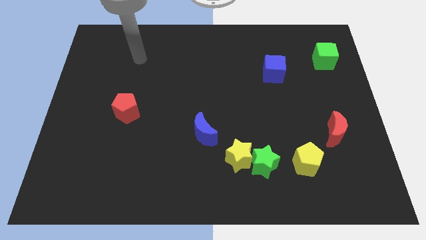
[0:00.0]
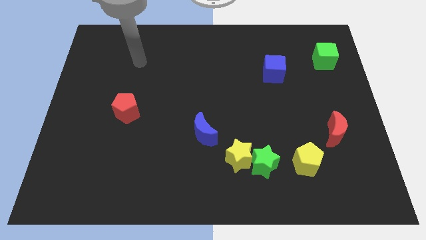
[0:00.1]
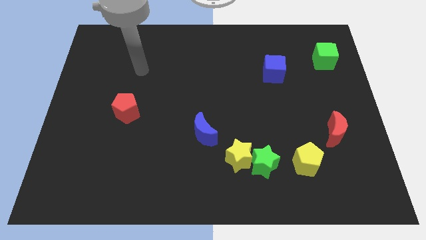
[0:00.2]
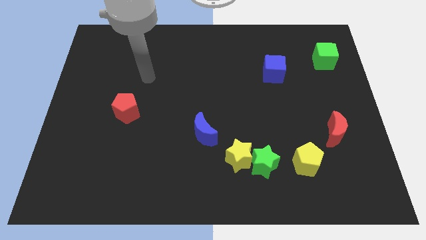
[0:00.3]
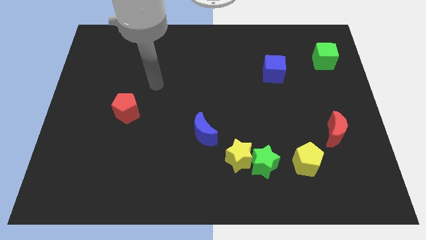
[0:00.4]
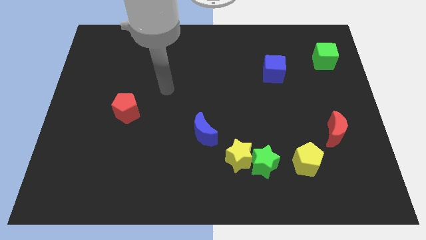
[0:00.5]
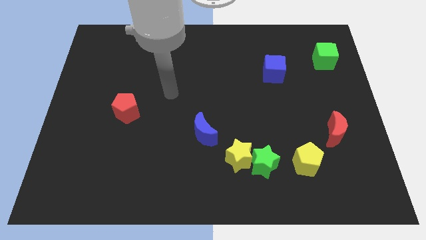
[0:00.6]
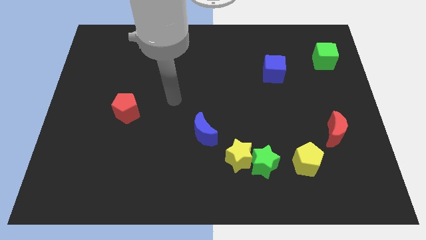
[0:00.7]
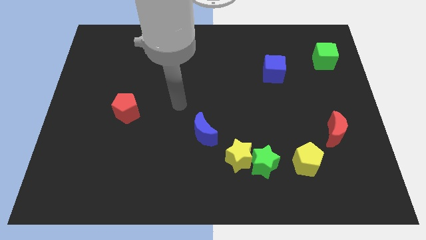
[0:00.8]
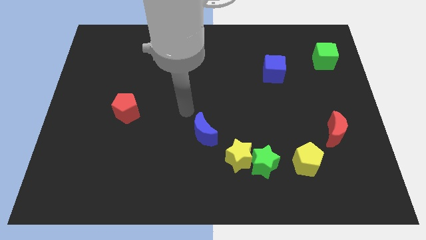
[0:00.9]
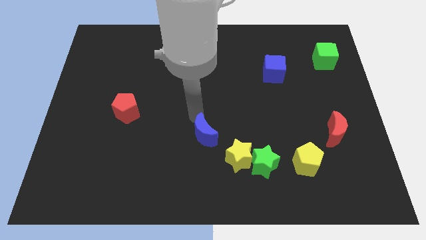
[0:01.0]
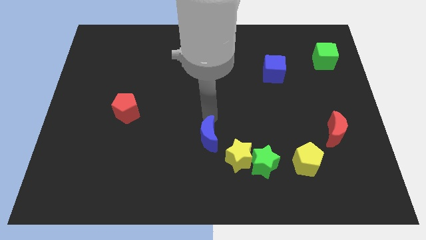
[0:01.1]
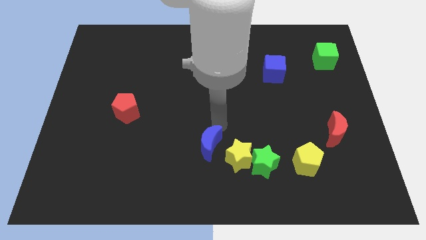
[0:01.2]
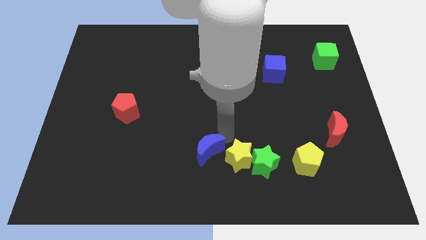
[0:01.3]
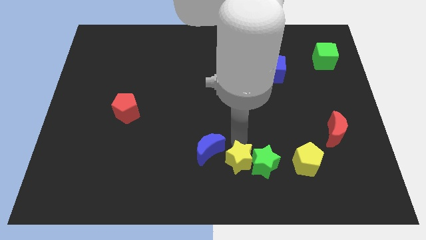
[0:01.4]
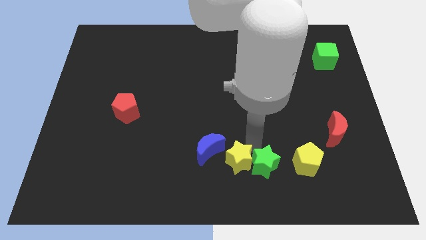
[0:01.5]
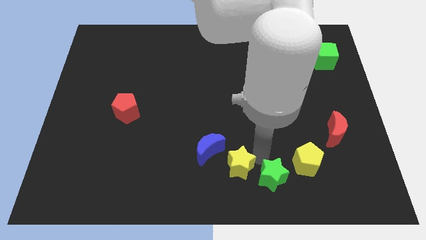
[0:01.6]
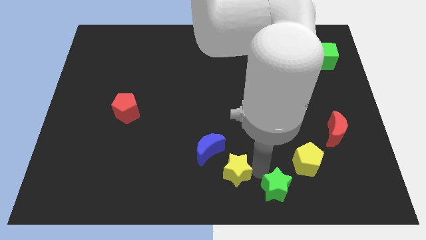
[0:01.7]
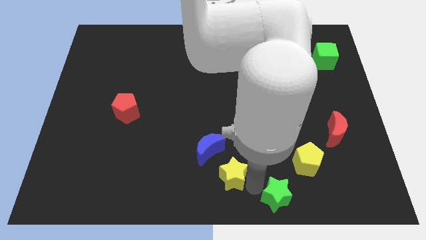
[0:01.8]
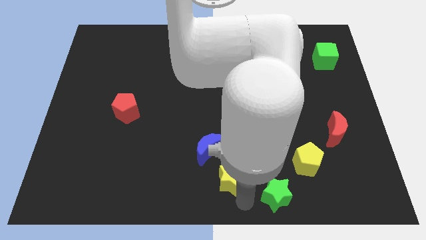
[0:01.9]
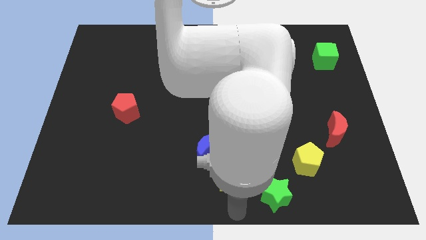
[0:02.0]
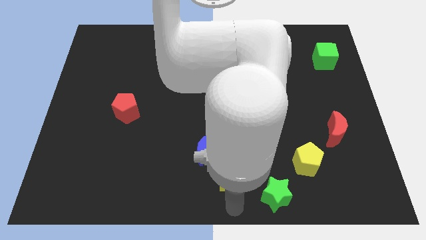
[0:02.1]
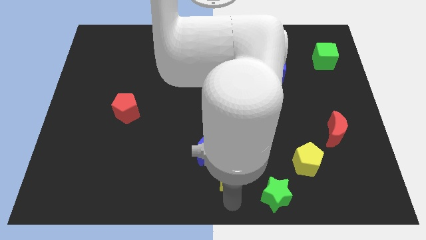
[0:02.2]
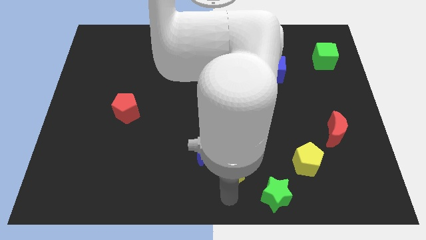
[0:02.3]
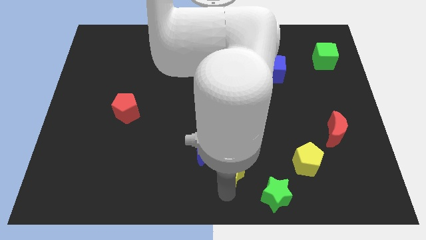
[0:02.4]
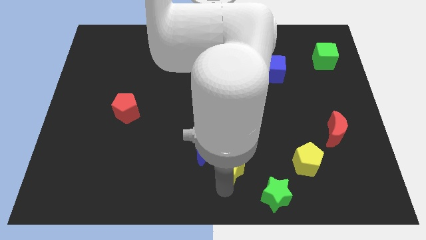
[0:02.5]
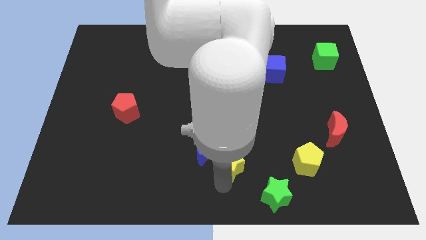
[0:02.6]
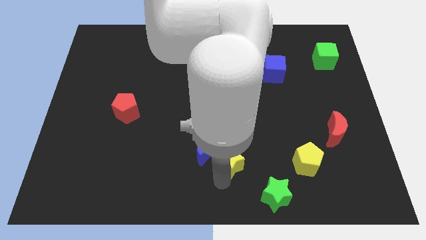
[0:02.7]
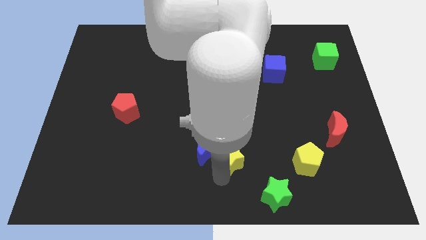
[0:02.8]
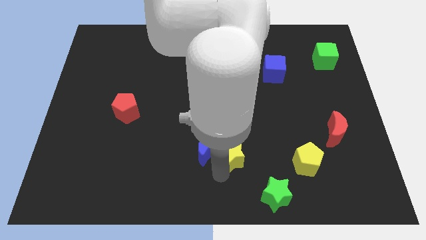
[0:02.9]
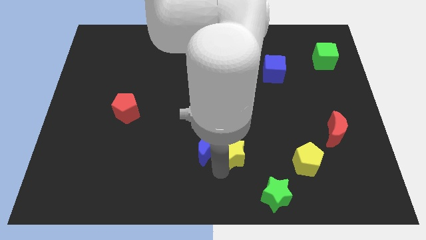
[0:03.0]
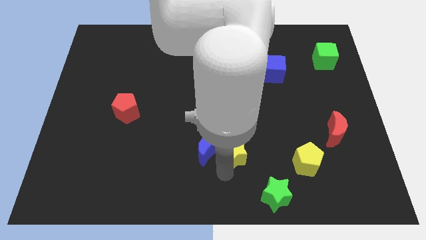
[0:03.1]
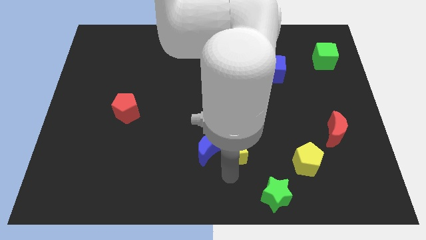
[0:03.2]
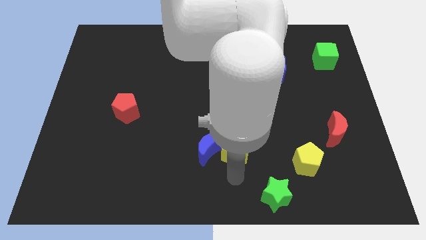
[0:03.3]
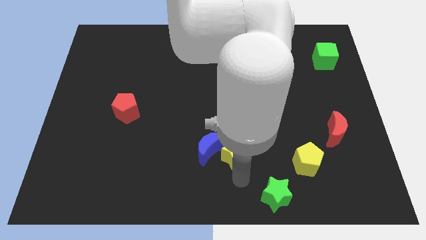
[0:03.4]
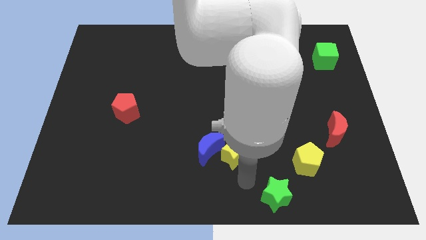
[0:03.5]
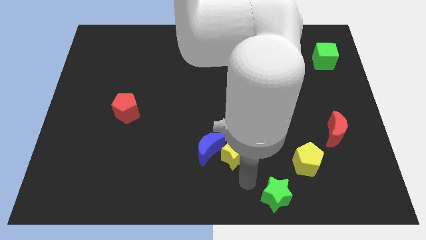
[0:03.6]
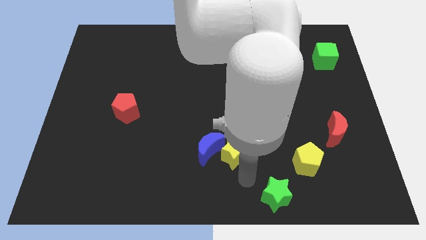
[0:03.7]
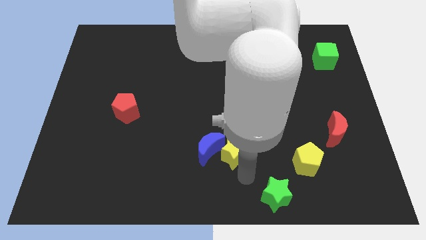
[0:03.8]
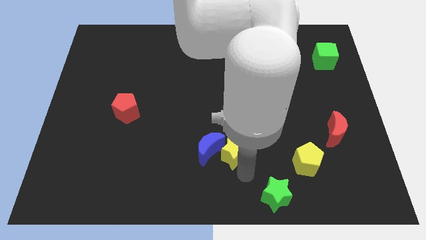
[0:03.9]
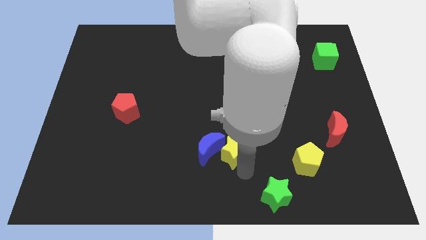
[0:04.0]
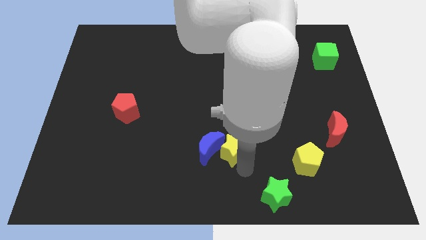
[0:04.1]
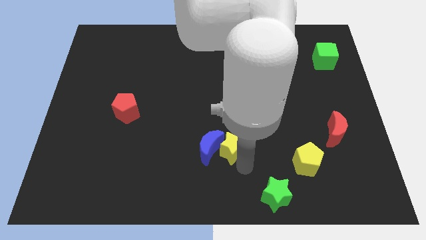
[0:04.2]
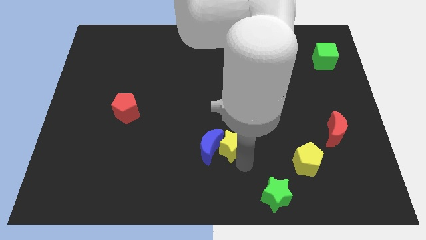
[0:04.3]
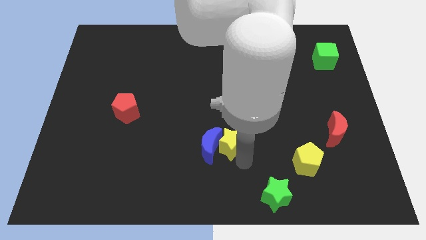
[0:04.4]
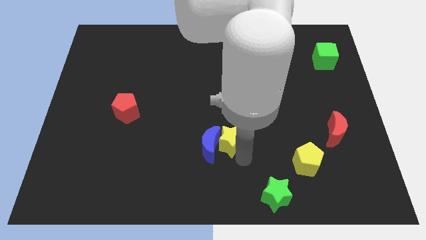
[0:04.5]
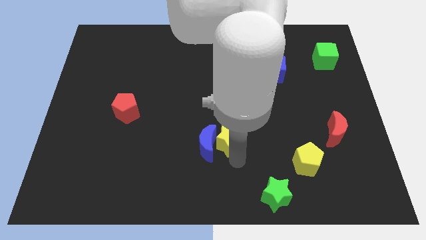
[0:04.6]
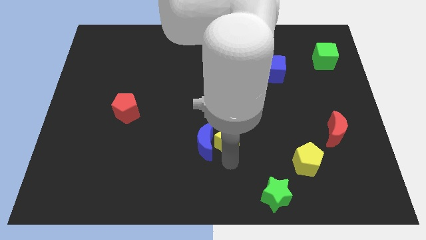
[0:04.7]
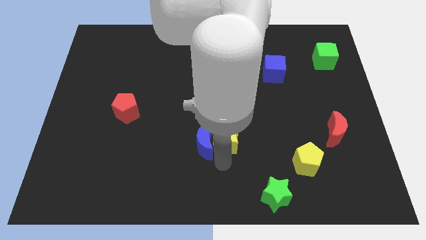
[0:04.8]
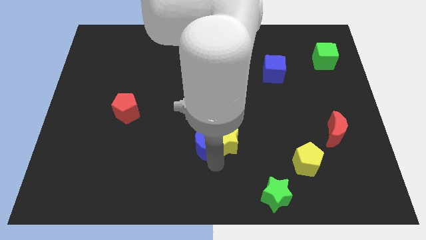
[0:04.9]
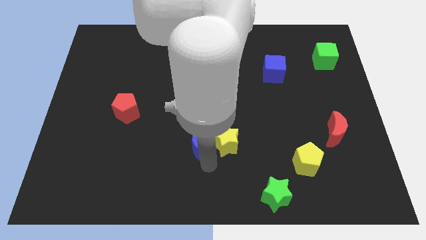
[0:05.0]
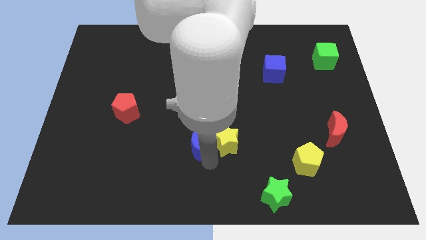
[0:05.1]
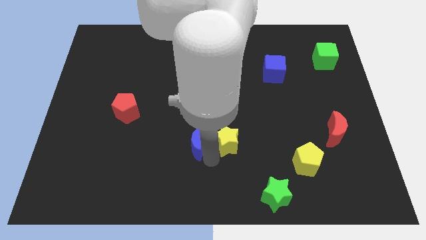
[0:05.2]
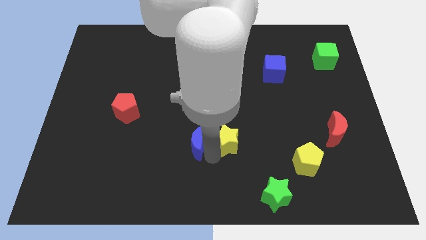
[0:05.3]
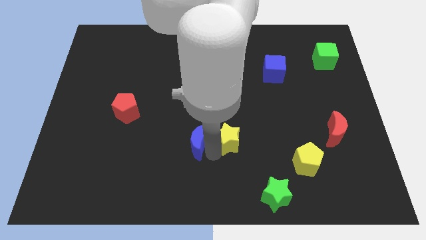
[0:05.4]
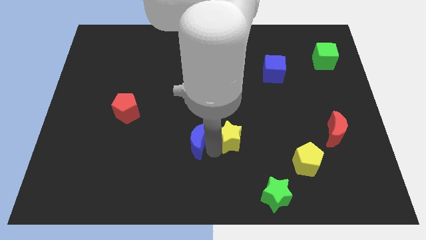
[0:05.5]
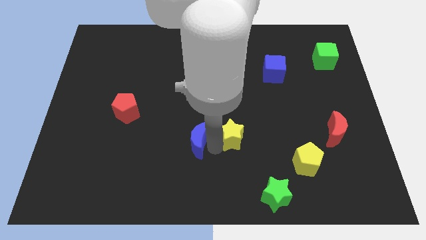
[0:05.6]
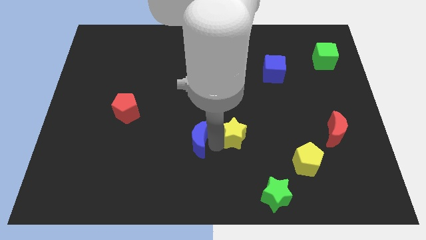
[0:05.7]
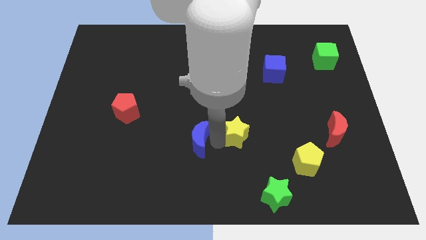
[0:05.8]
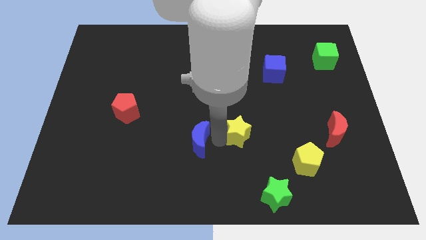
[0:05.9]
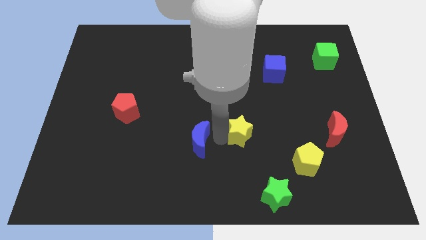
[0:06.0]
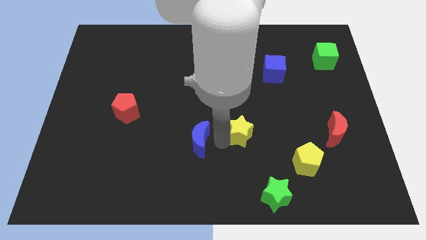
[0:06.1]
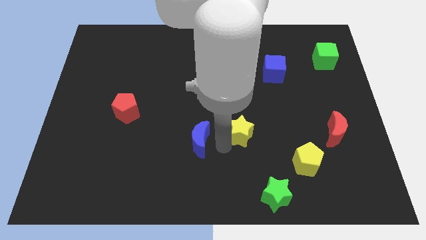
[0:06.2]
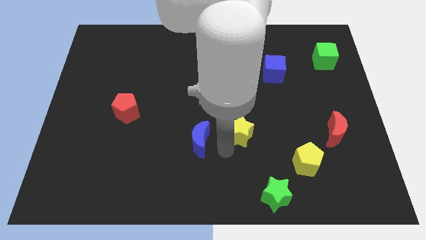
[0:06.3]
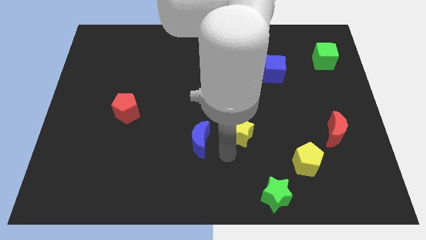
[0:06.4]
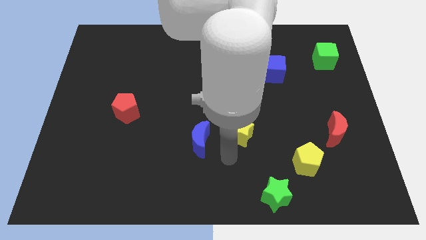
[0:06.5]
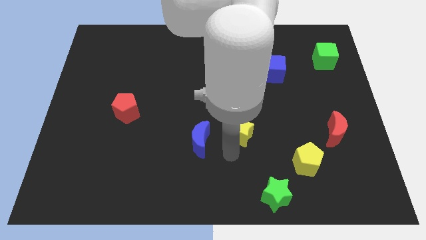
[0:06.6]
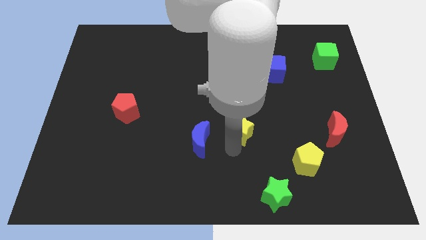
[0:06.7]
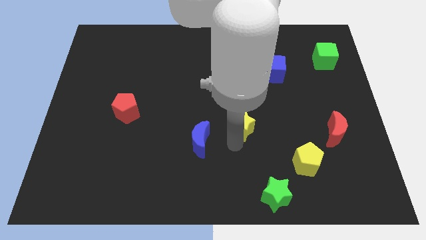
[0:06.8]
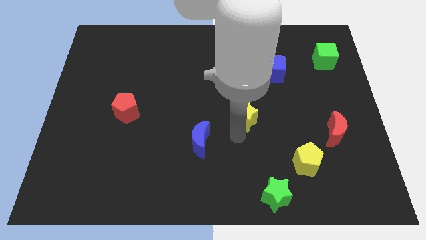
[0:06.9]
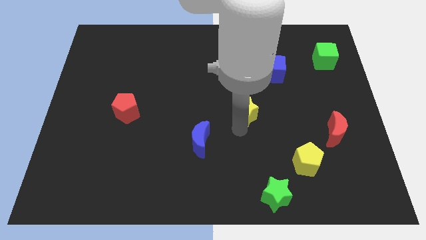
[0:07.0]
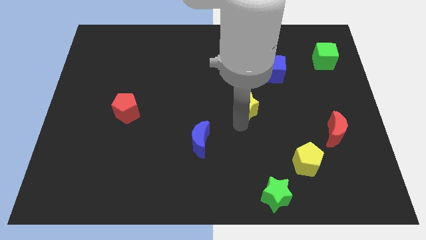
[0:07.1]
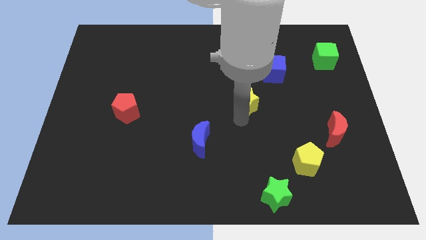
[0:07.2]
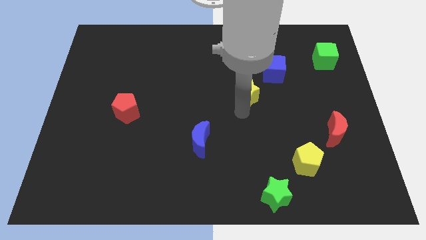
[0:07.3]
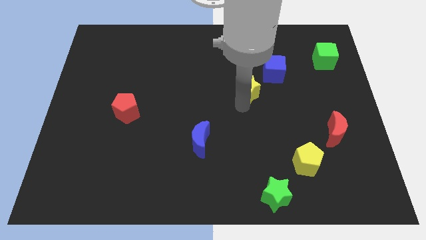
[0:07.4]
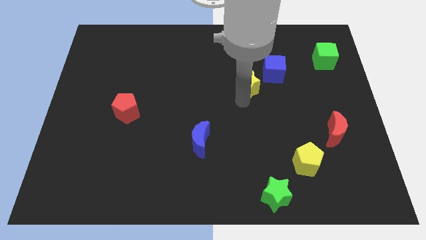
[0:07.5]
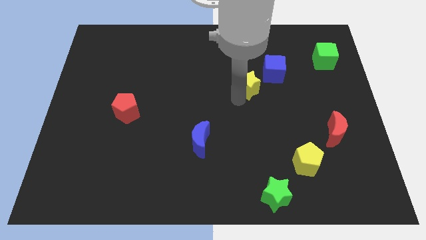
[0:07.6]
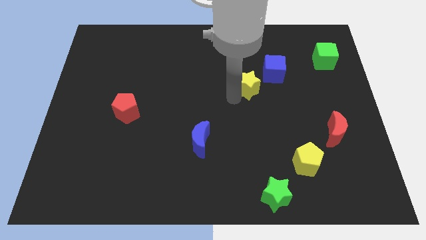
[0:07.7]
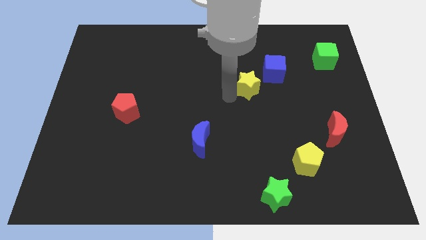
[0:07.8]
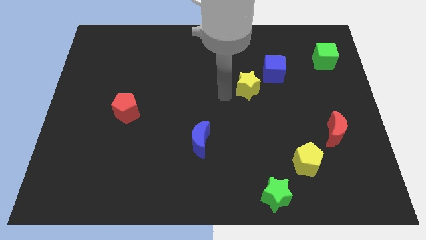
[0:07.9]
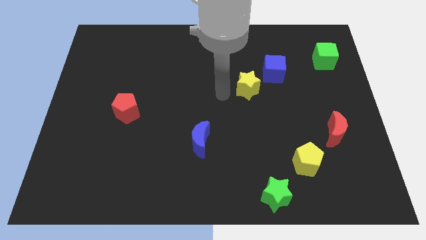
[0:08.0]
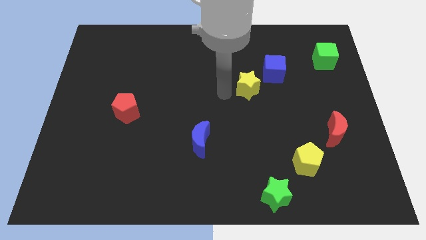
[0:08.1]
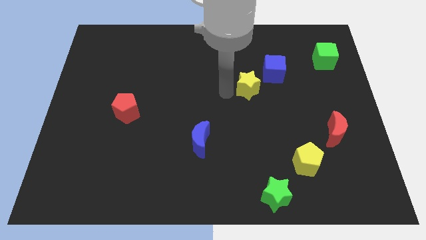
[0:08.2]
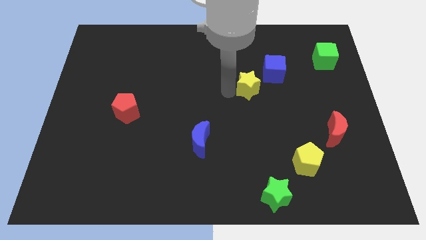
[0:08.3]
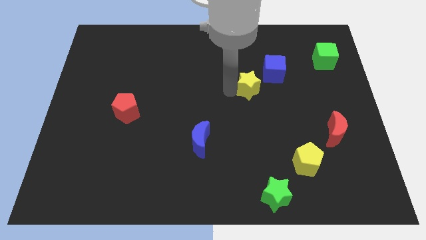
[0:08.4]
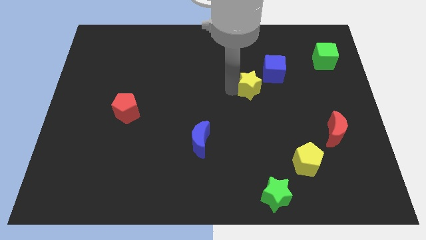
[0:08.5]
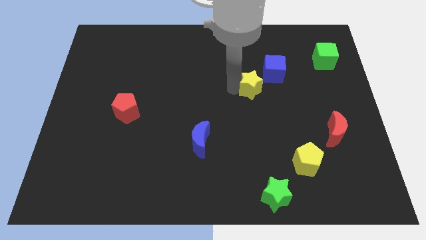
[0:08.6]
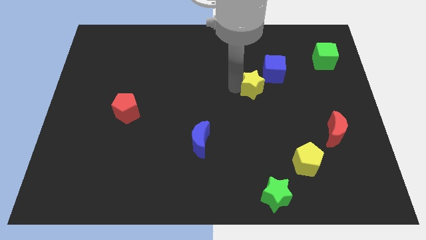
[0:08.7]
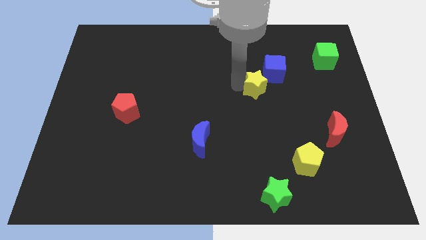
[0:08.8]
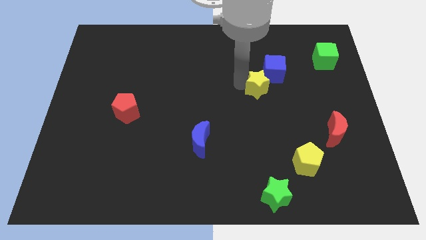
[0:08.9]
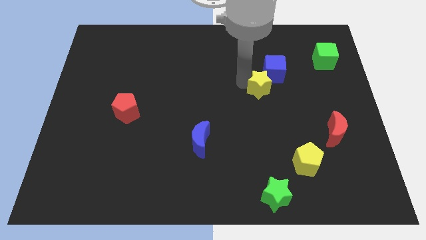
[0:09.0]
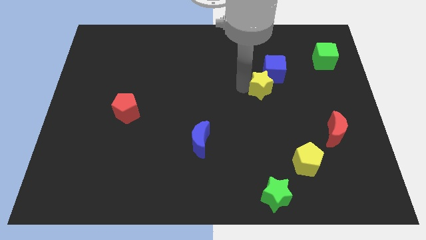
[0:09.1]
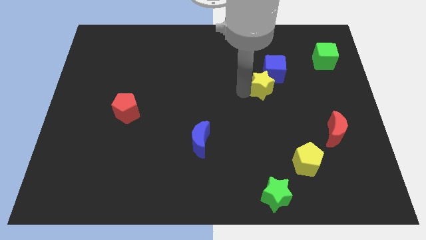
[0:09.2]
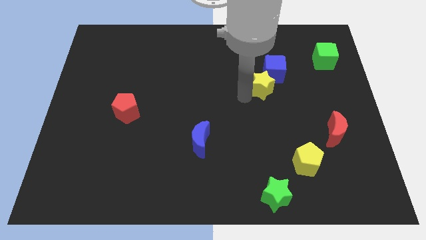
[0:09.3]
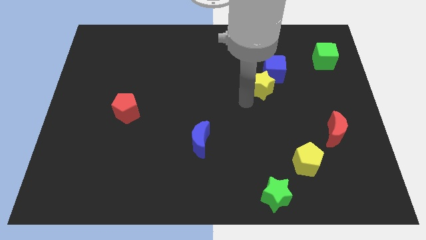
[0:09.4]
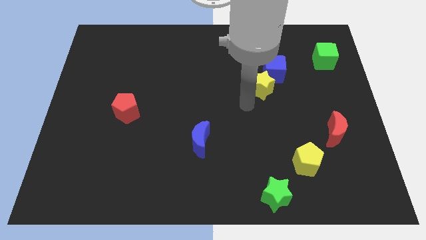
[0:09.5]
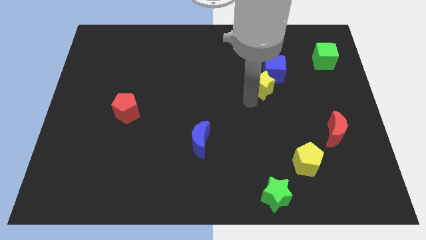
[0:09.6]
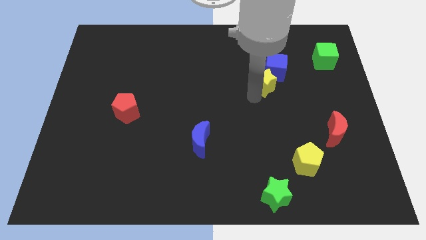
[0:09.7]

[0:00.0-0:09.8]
move the yellow star close to the blue cube
